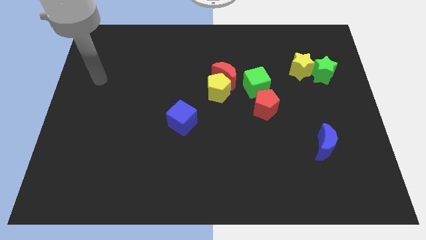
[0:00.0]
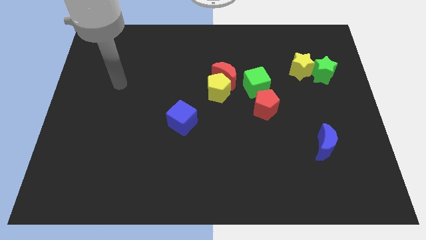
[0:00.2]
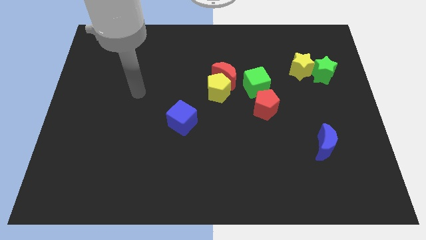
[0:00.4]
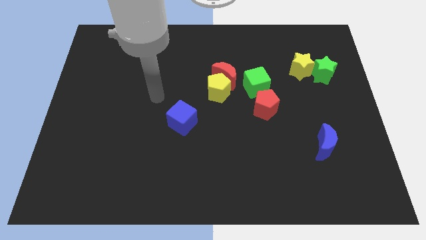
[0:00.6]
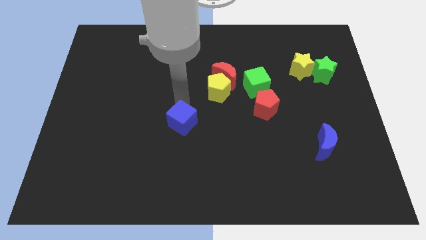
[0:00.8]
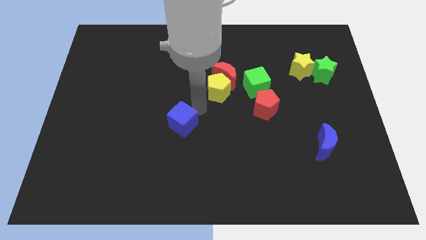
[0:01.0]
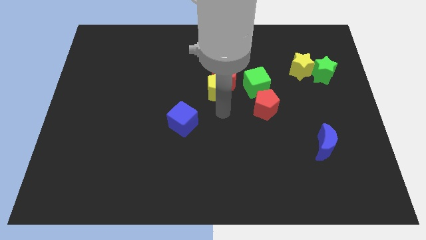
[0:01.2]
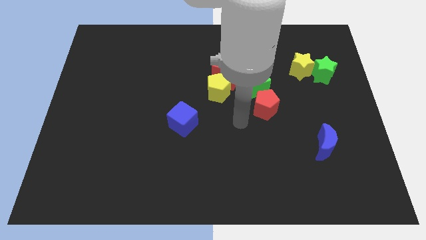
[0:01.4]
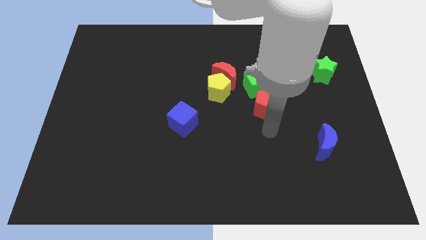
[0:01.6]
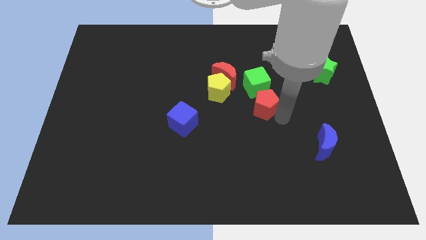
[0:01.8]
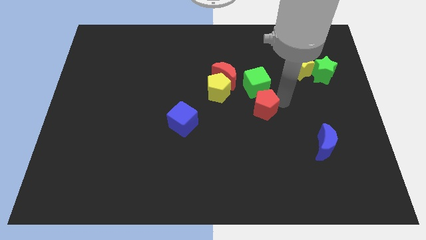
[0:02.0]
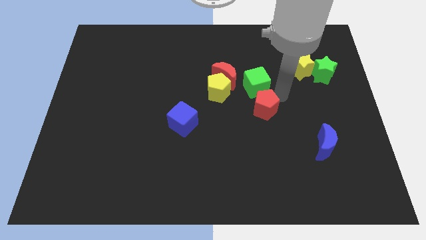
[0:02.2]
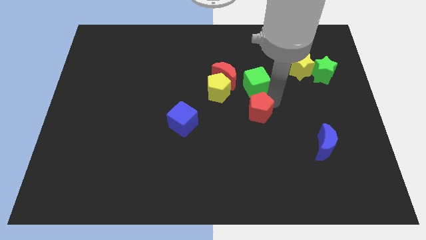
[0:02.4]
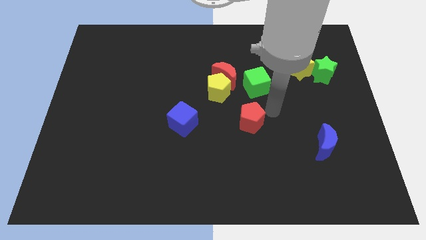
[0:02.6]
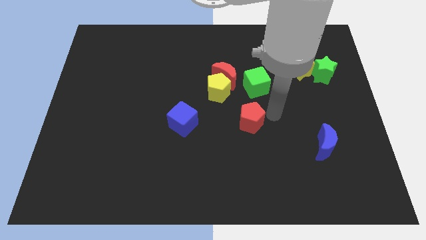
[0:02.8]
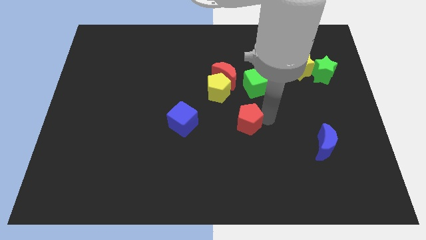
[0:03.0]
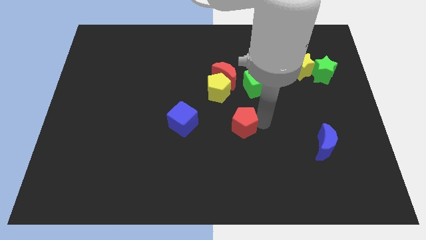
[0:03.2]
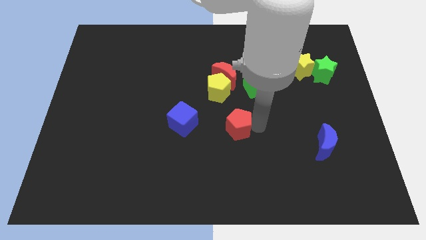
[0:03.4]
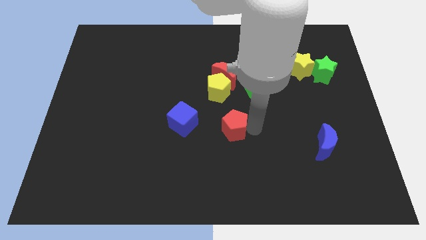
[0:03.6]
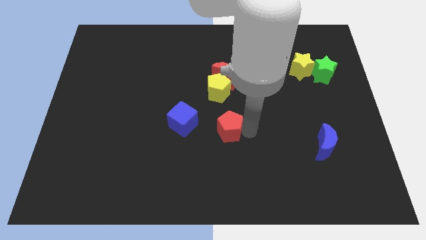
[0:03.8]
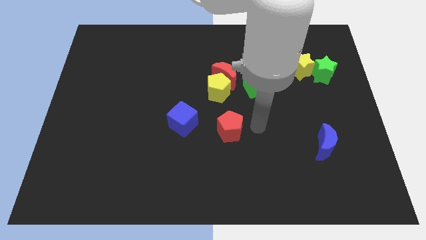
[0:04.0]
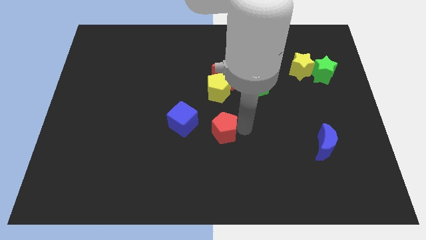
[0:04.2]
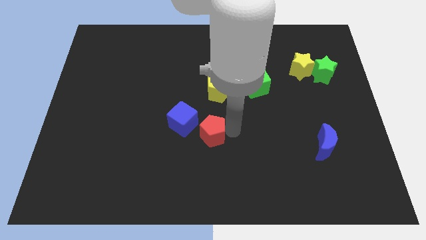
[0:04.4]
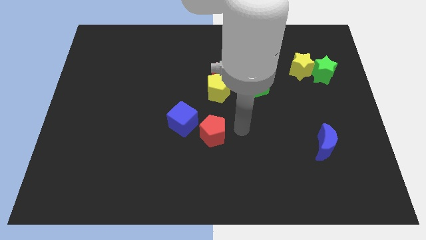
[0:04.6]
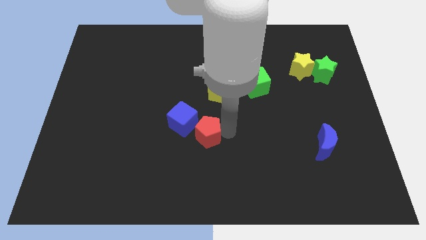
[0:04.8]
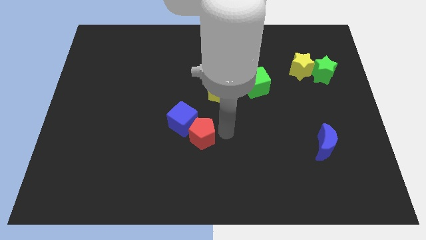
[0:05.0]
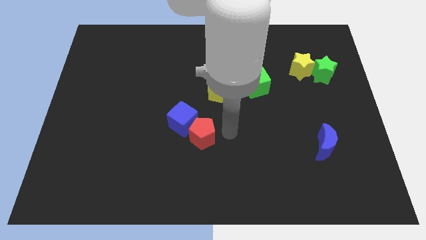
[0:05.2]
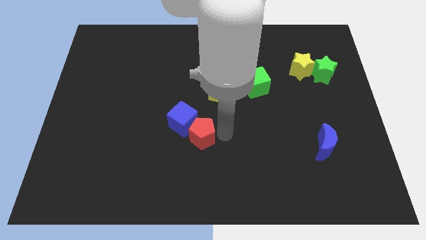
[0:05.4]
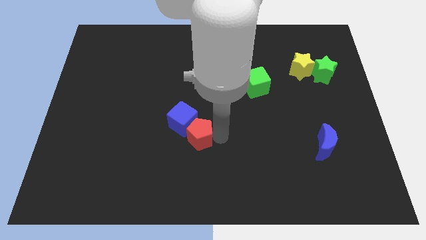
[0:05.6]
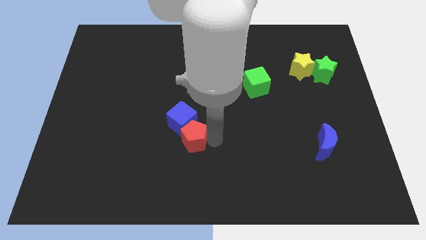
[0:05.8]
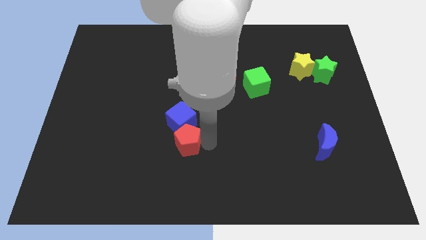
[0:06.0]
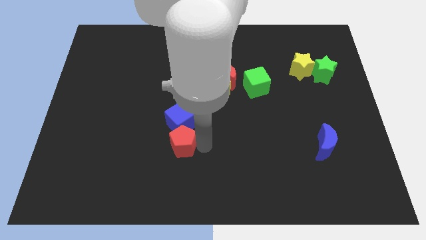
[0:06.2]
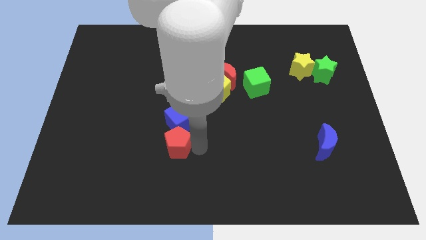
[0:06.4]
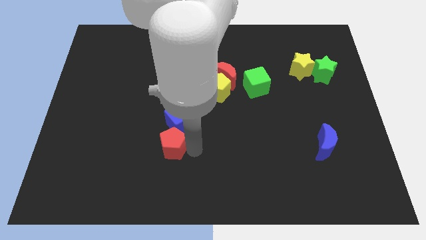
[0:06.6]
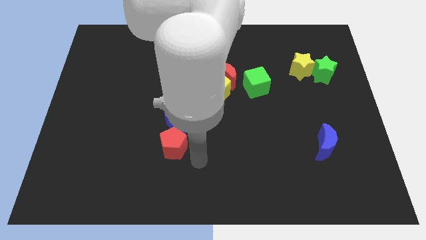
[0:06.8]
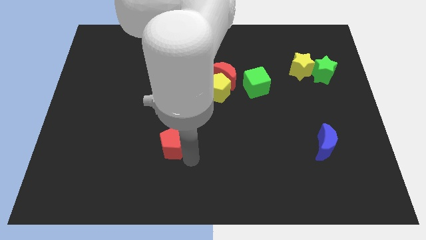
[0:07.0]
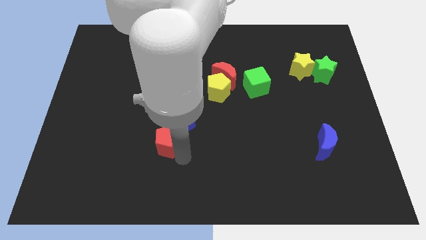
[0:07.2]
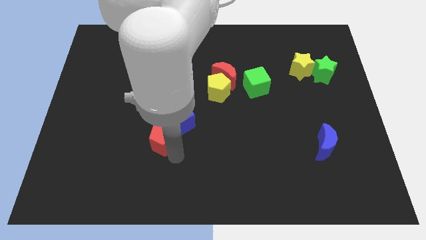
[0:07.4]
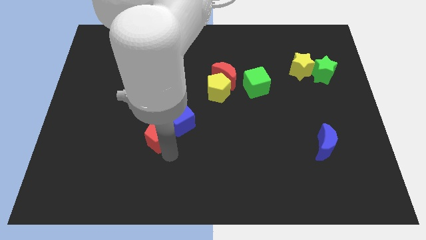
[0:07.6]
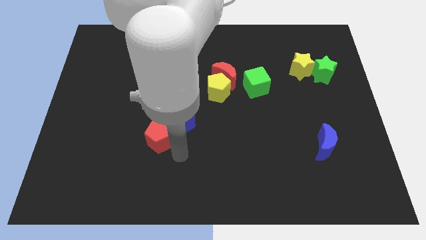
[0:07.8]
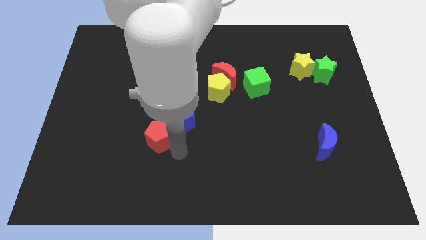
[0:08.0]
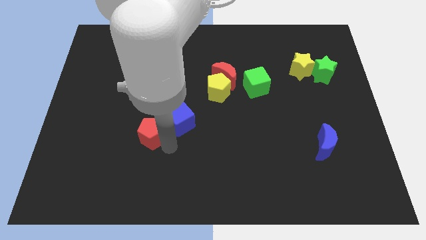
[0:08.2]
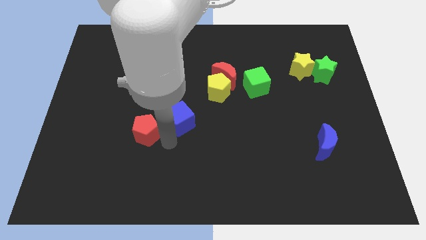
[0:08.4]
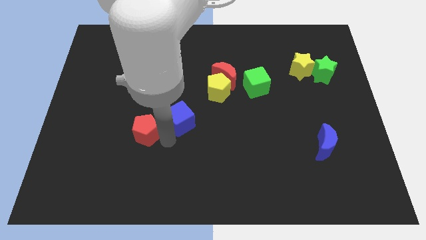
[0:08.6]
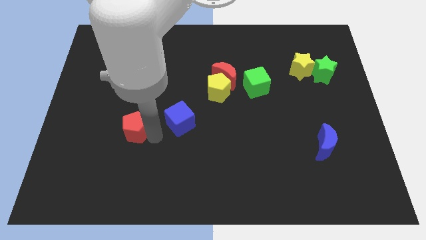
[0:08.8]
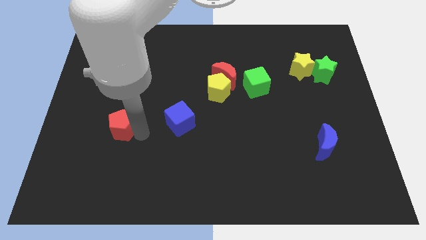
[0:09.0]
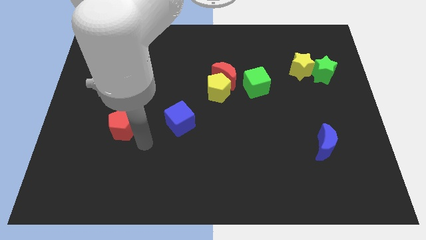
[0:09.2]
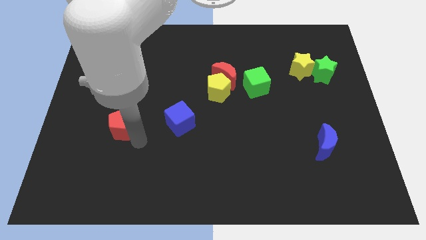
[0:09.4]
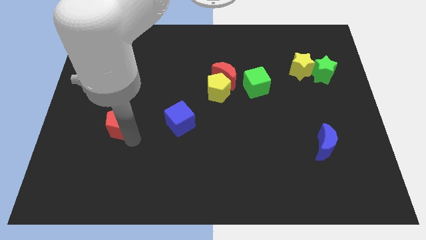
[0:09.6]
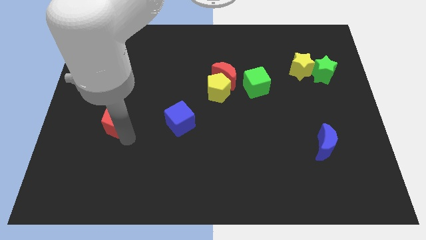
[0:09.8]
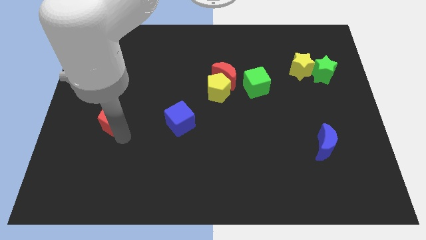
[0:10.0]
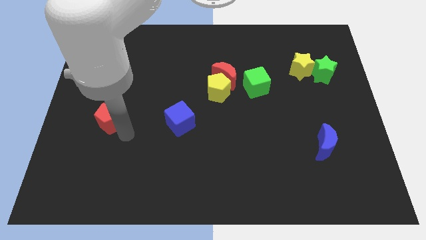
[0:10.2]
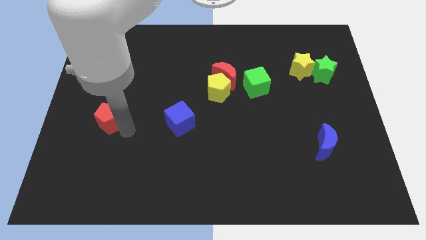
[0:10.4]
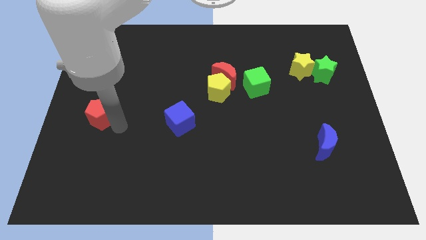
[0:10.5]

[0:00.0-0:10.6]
put the red pentagon to the left side
